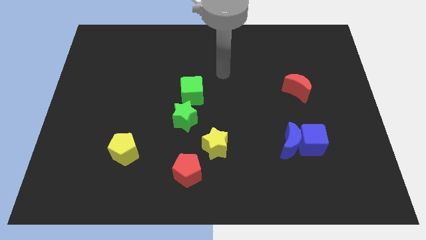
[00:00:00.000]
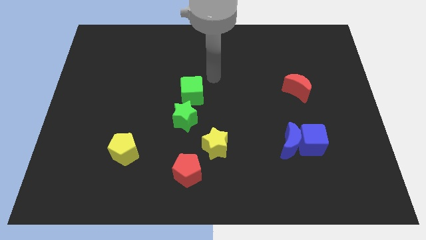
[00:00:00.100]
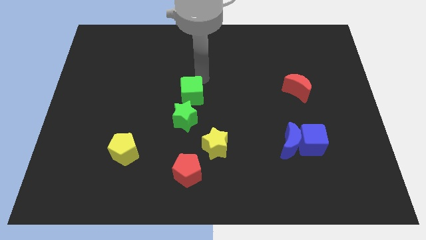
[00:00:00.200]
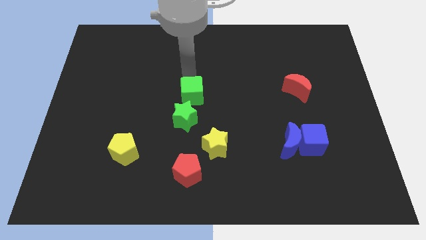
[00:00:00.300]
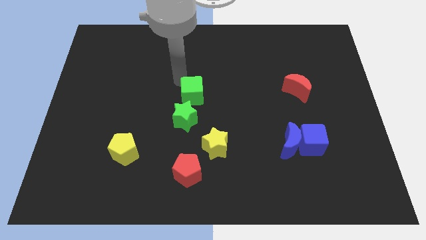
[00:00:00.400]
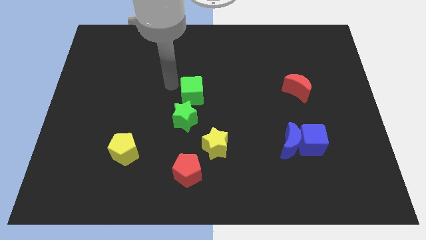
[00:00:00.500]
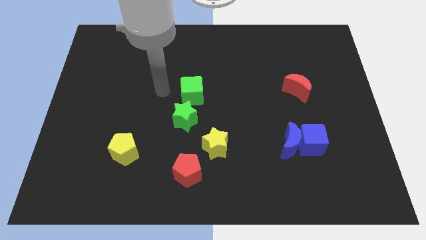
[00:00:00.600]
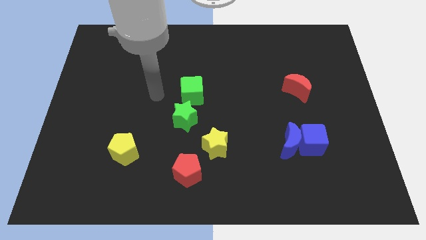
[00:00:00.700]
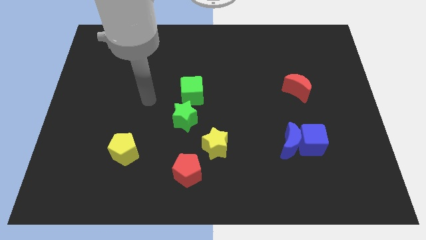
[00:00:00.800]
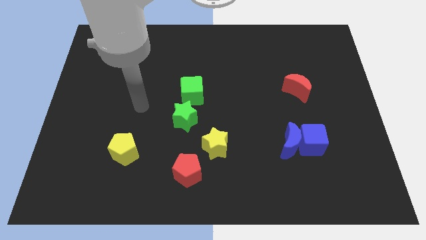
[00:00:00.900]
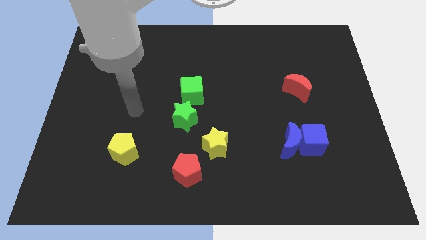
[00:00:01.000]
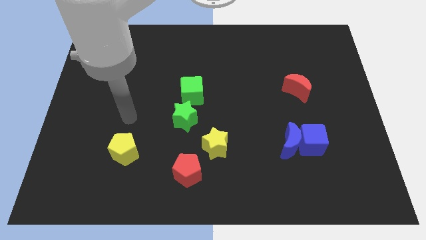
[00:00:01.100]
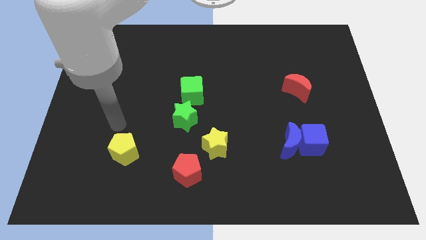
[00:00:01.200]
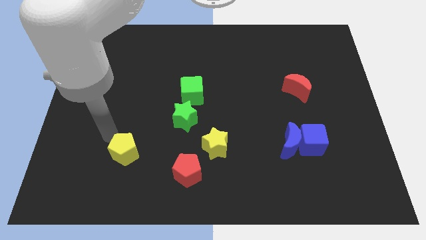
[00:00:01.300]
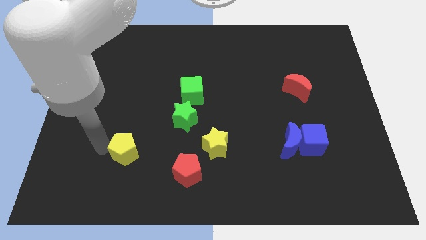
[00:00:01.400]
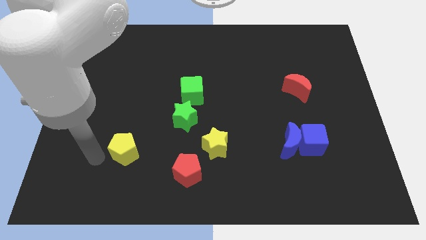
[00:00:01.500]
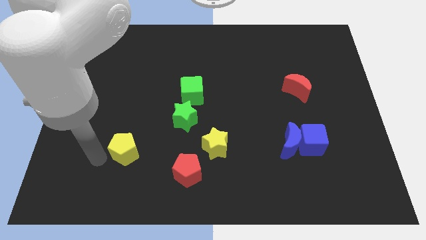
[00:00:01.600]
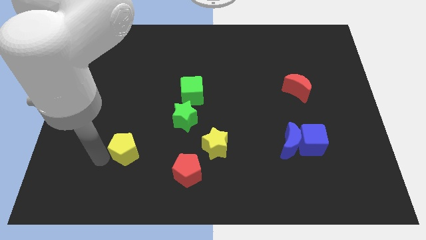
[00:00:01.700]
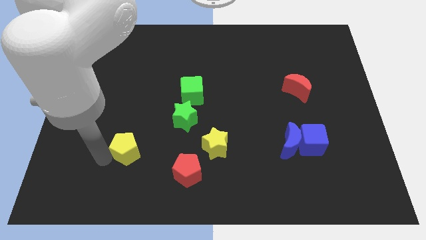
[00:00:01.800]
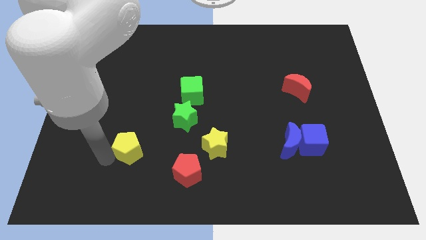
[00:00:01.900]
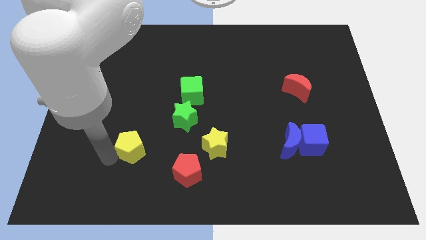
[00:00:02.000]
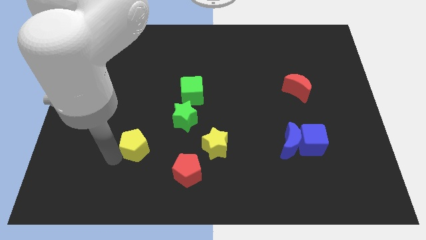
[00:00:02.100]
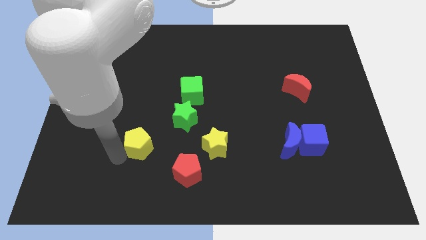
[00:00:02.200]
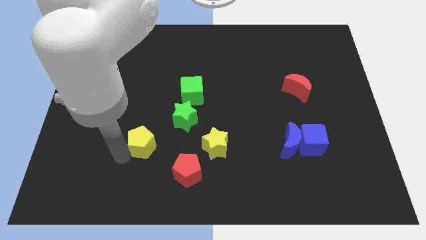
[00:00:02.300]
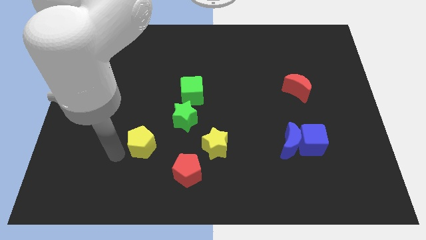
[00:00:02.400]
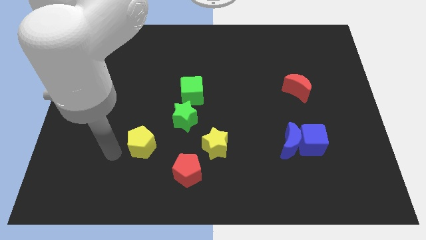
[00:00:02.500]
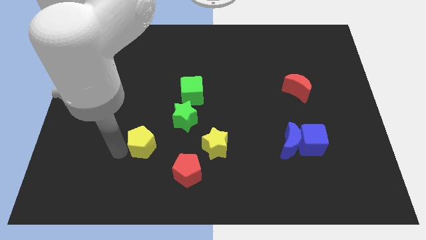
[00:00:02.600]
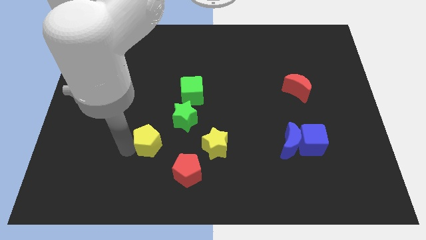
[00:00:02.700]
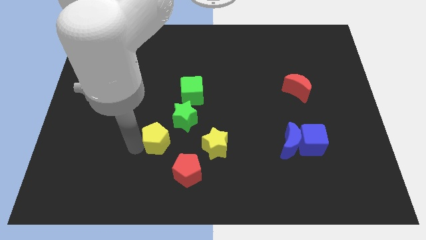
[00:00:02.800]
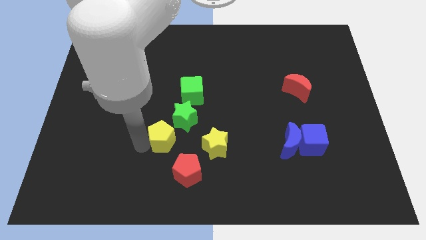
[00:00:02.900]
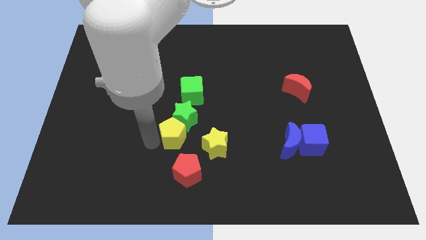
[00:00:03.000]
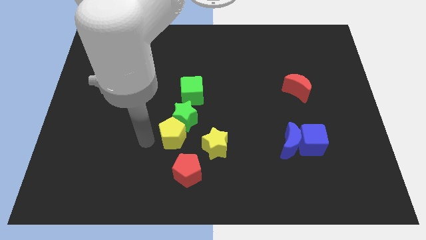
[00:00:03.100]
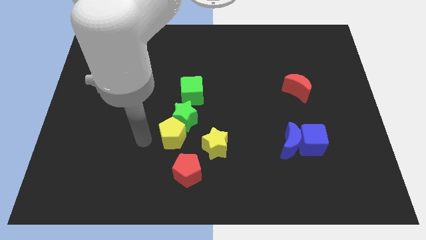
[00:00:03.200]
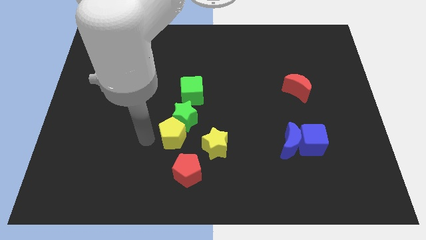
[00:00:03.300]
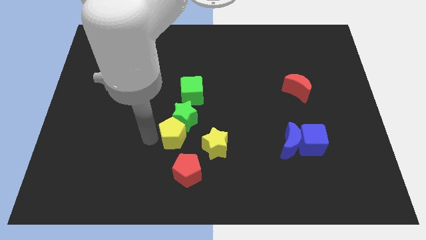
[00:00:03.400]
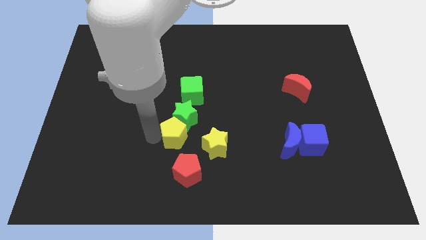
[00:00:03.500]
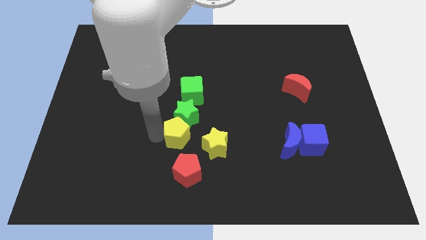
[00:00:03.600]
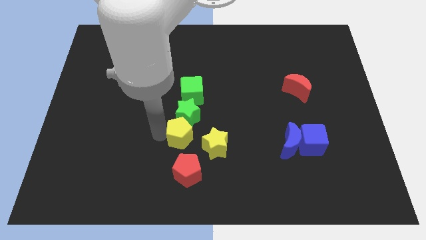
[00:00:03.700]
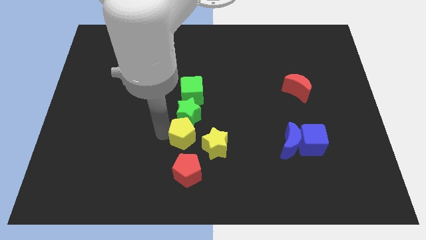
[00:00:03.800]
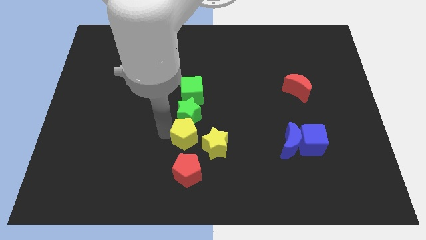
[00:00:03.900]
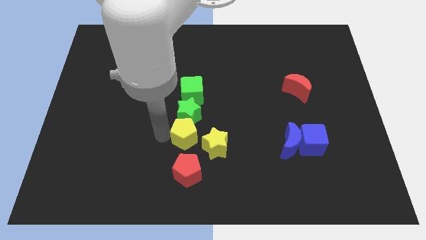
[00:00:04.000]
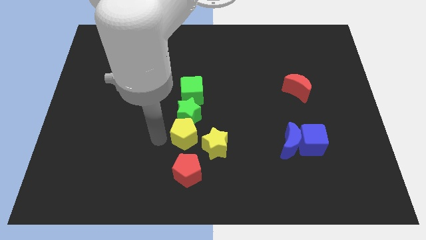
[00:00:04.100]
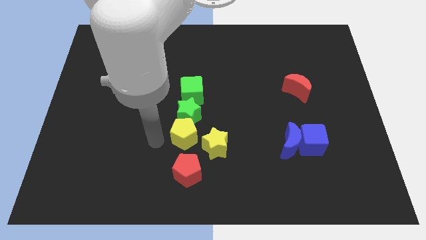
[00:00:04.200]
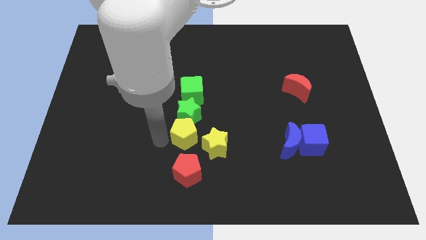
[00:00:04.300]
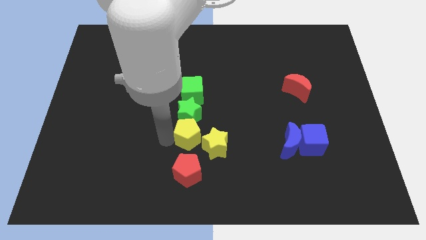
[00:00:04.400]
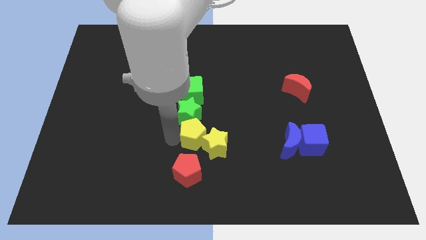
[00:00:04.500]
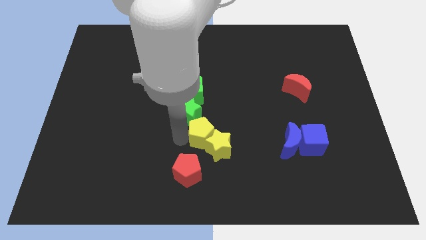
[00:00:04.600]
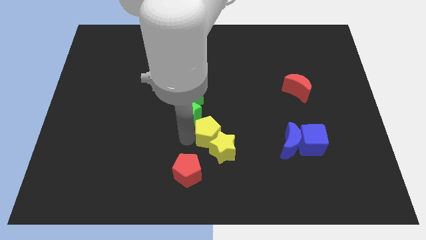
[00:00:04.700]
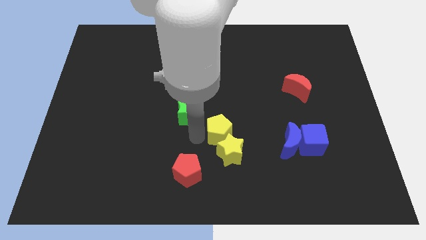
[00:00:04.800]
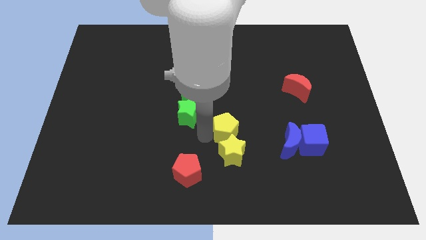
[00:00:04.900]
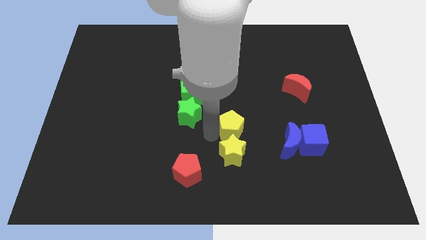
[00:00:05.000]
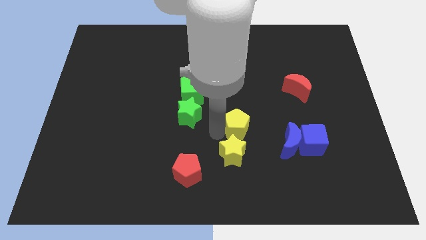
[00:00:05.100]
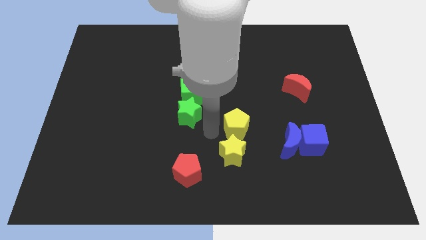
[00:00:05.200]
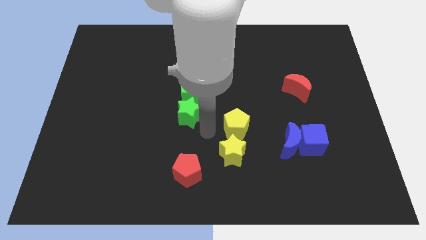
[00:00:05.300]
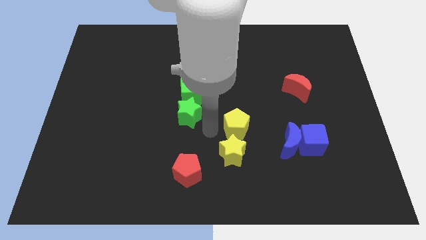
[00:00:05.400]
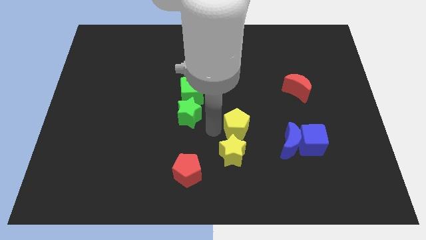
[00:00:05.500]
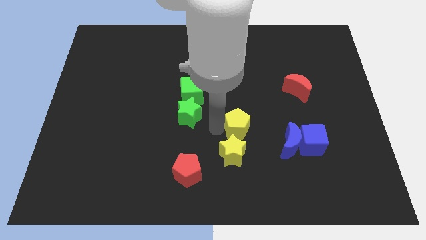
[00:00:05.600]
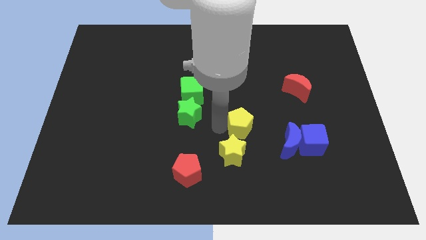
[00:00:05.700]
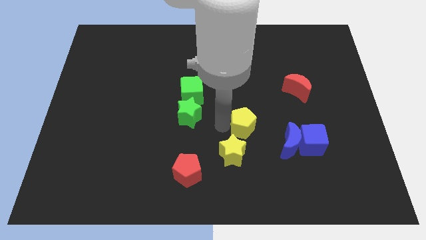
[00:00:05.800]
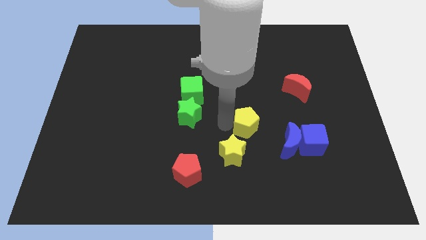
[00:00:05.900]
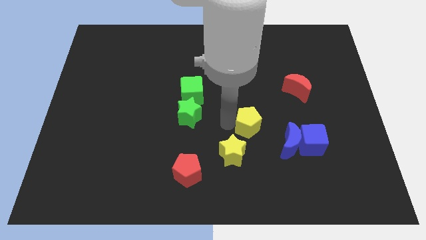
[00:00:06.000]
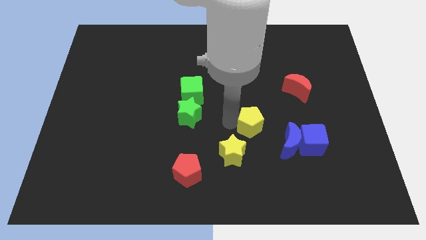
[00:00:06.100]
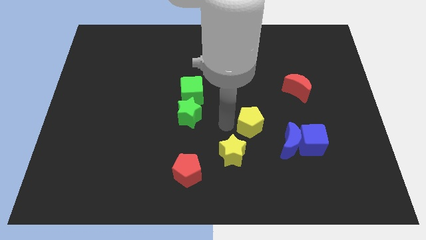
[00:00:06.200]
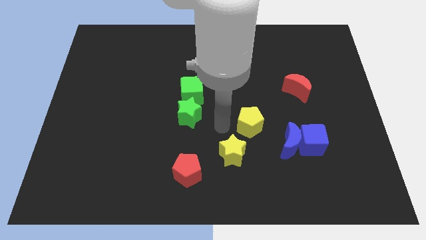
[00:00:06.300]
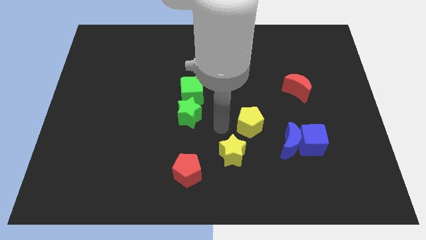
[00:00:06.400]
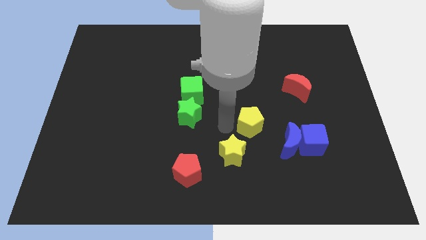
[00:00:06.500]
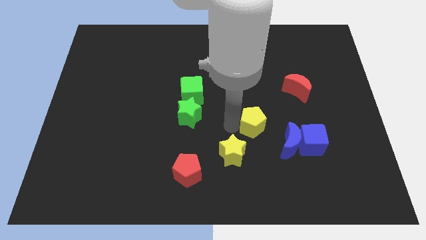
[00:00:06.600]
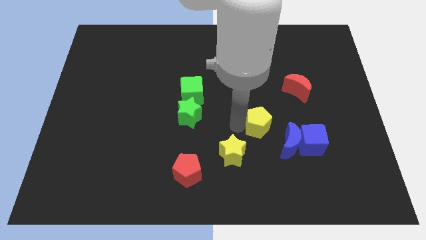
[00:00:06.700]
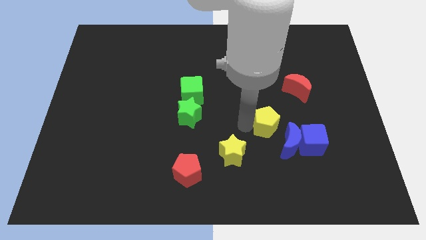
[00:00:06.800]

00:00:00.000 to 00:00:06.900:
move the yellow pentagon to the top left side of the blue cube

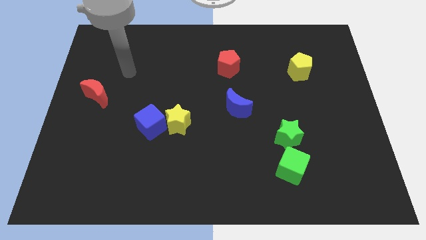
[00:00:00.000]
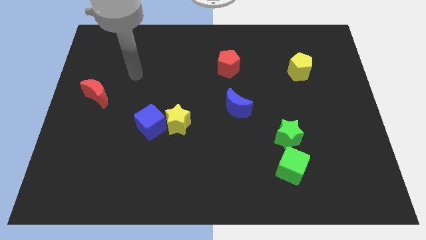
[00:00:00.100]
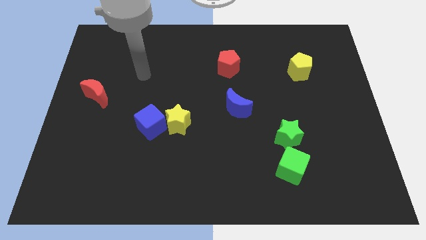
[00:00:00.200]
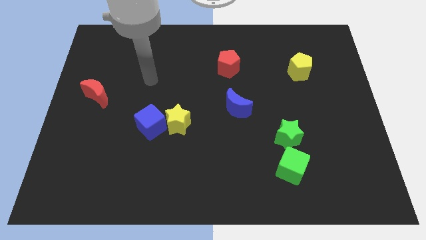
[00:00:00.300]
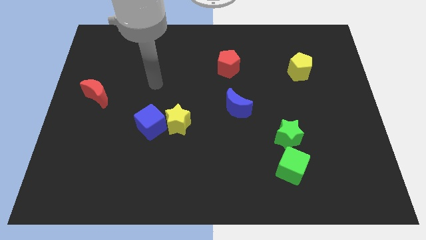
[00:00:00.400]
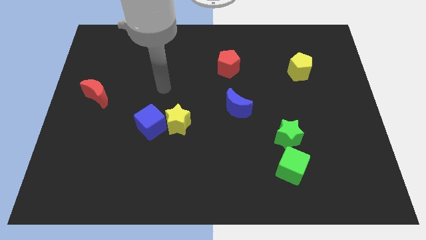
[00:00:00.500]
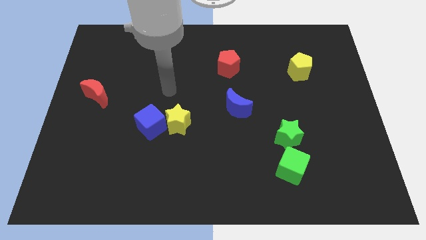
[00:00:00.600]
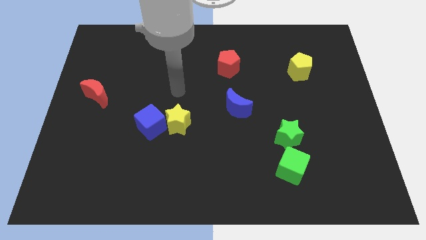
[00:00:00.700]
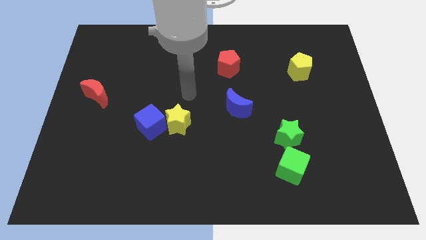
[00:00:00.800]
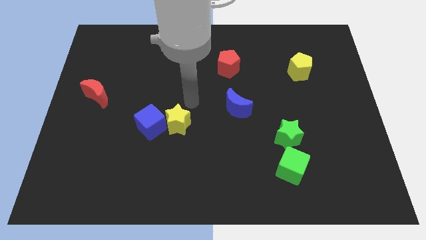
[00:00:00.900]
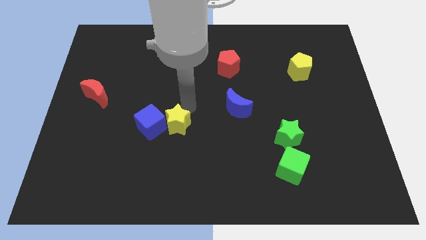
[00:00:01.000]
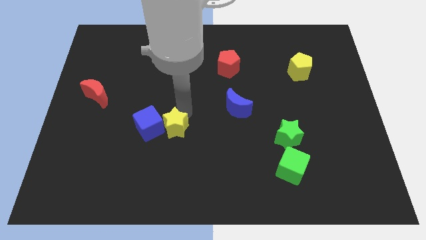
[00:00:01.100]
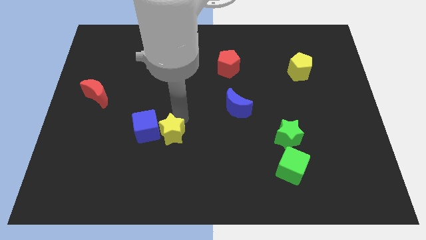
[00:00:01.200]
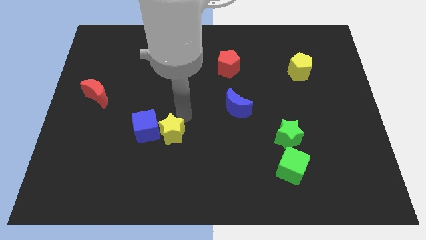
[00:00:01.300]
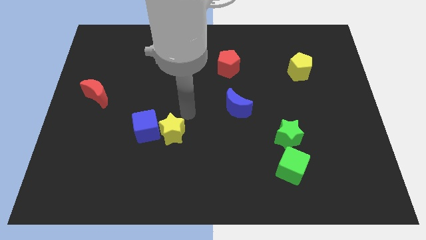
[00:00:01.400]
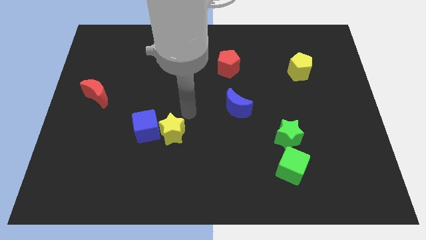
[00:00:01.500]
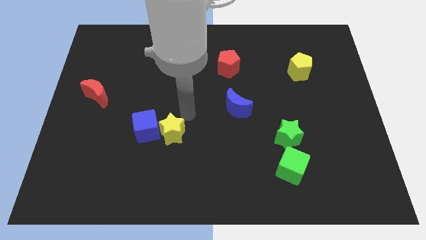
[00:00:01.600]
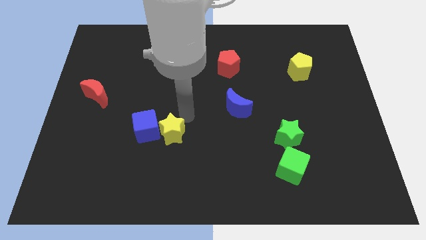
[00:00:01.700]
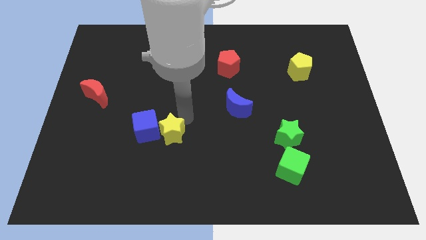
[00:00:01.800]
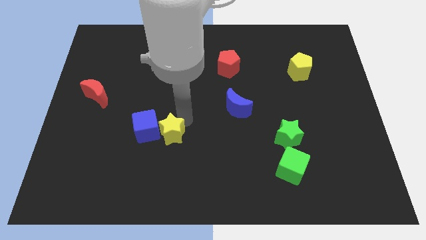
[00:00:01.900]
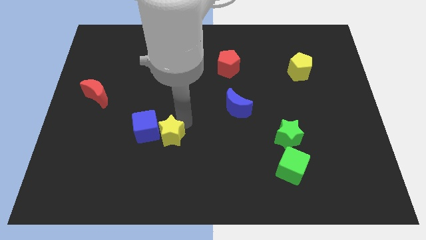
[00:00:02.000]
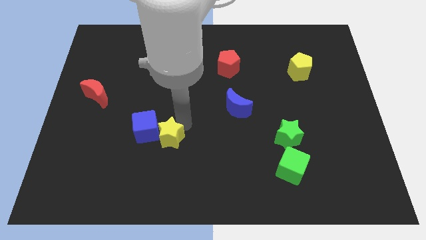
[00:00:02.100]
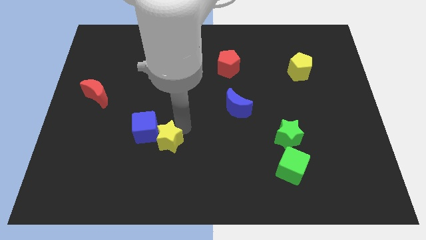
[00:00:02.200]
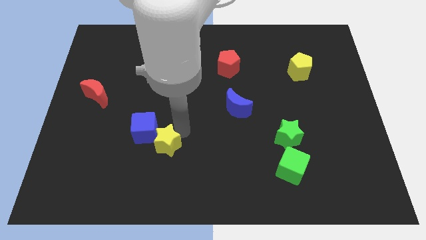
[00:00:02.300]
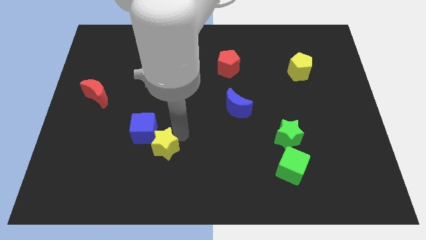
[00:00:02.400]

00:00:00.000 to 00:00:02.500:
move the yellow star to the bottom of the blue cube
